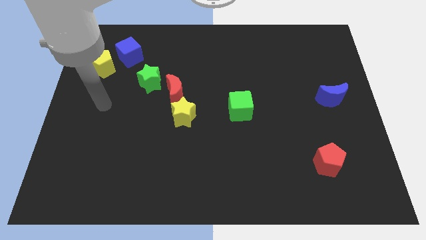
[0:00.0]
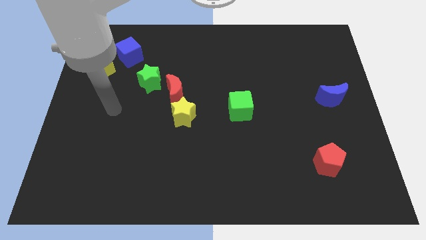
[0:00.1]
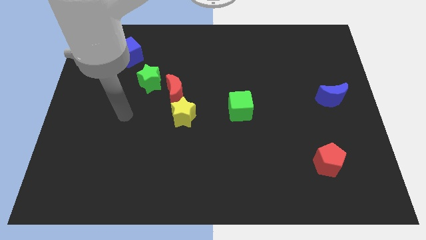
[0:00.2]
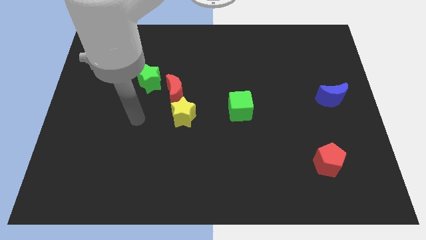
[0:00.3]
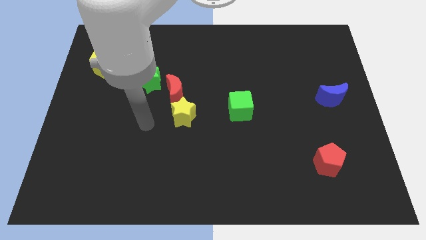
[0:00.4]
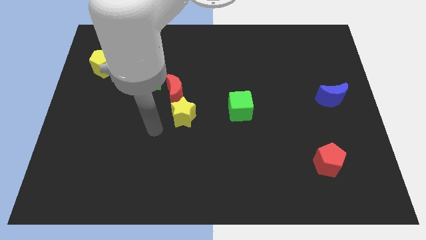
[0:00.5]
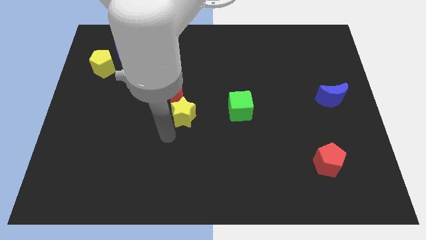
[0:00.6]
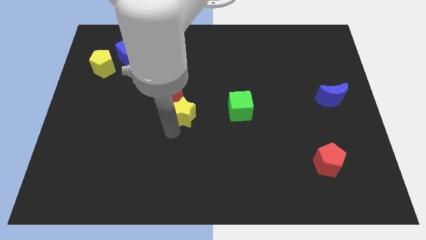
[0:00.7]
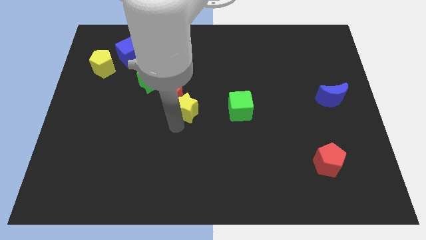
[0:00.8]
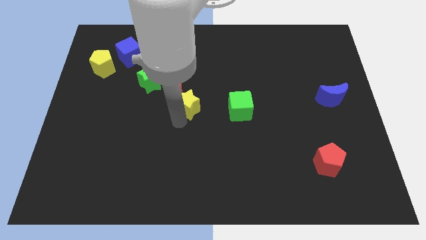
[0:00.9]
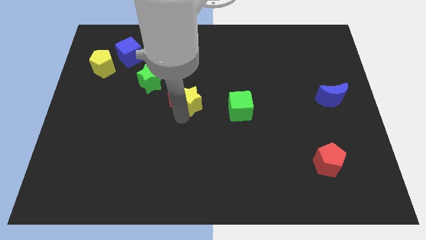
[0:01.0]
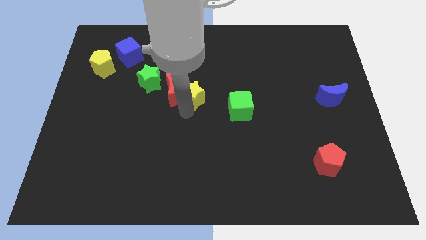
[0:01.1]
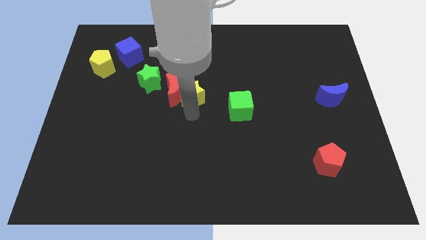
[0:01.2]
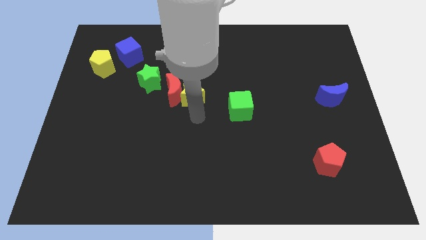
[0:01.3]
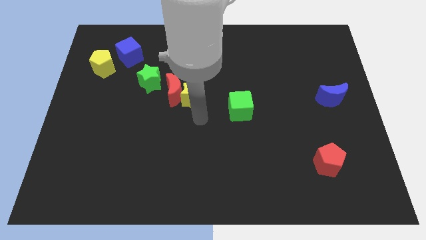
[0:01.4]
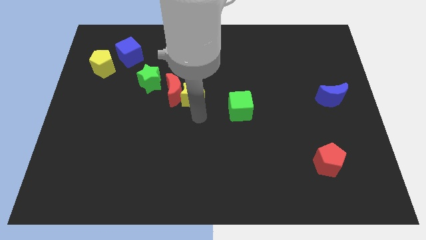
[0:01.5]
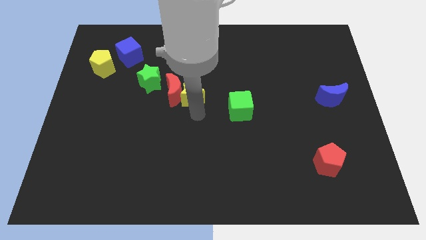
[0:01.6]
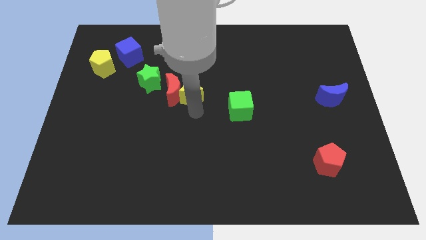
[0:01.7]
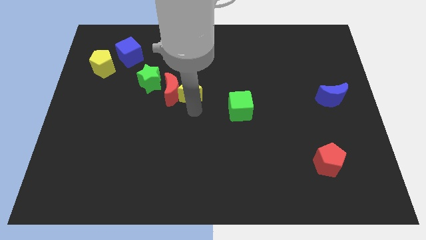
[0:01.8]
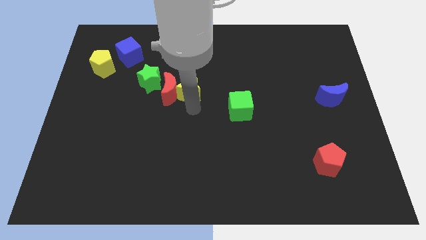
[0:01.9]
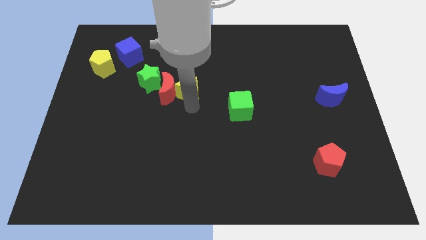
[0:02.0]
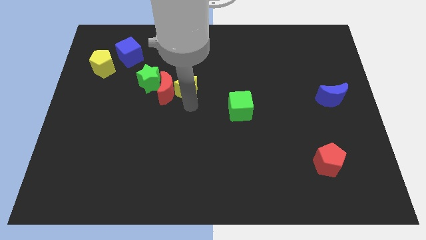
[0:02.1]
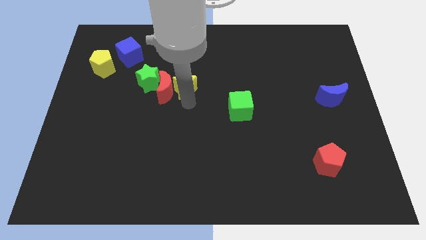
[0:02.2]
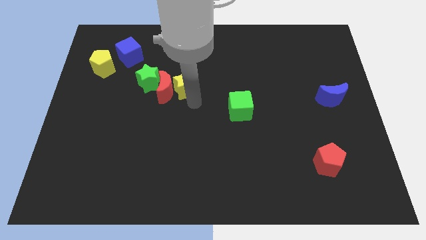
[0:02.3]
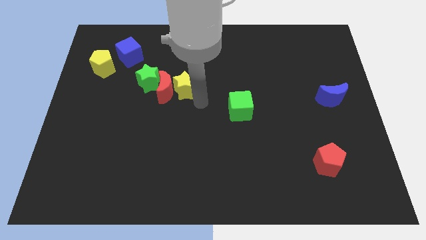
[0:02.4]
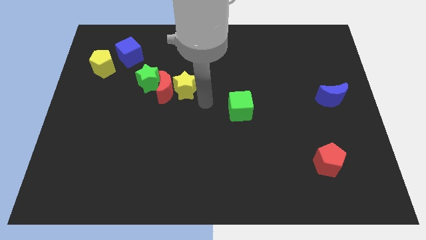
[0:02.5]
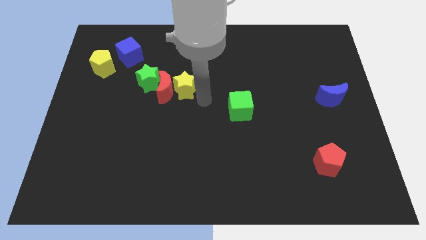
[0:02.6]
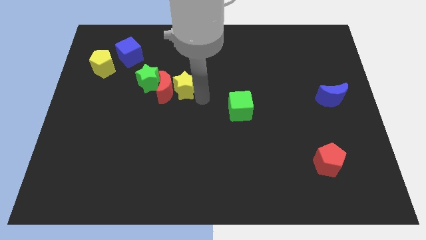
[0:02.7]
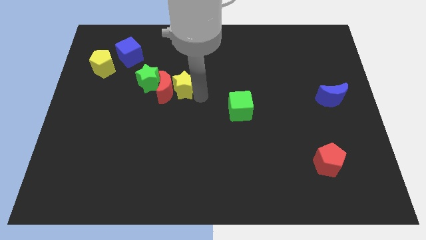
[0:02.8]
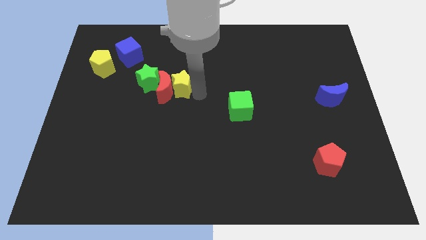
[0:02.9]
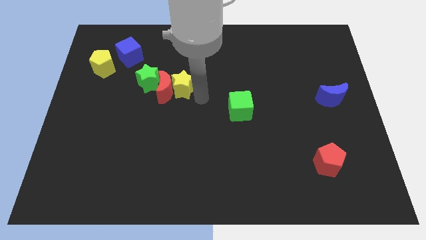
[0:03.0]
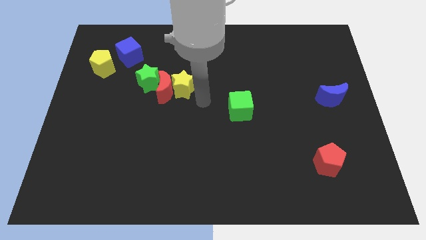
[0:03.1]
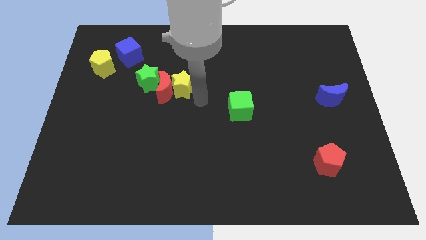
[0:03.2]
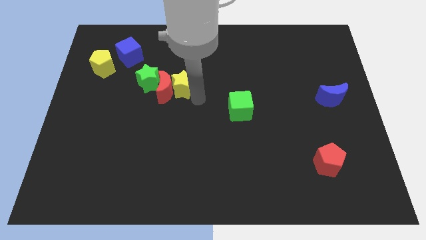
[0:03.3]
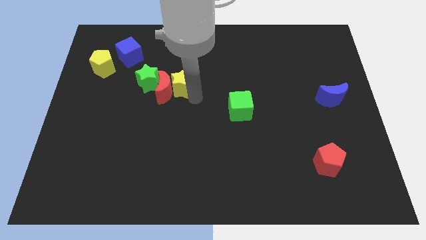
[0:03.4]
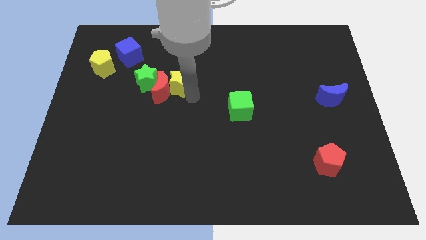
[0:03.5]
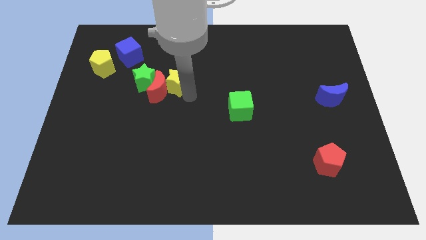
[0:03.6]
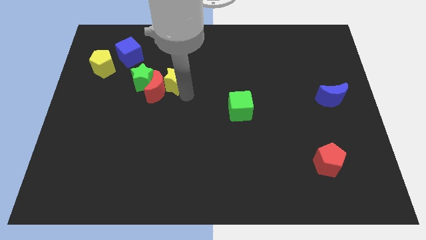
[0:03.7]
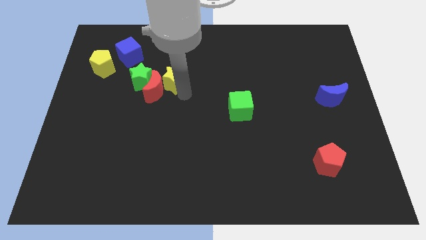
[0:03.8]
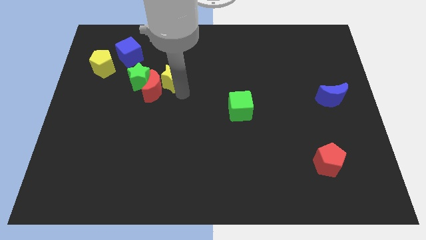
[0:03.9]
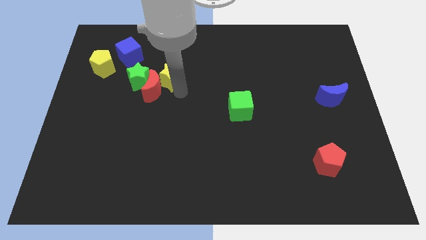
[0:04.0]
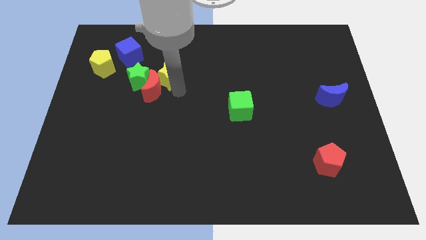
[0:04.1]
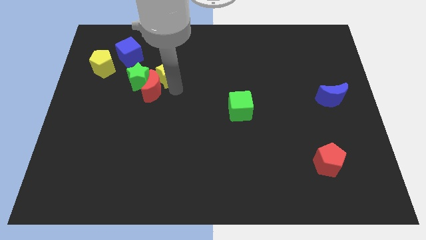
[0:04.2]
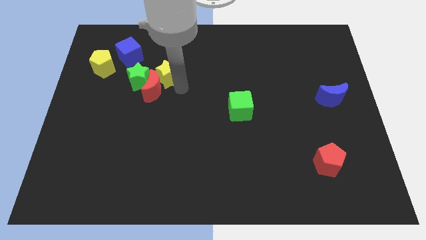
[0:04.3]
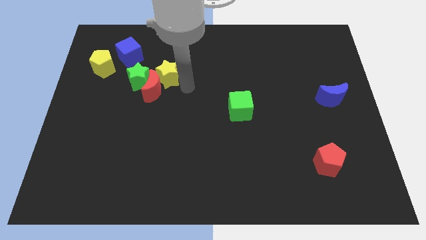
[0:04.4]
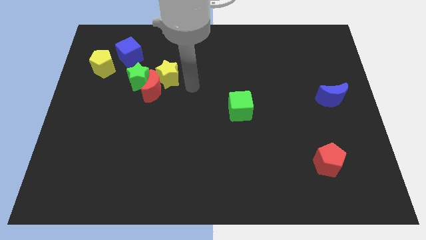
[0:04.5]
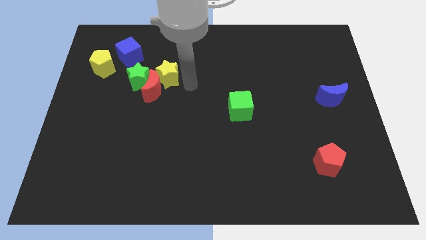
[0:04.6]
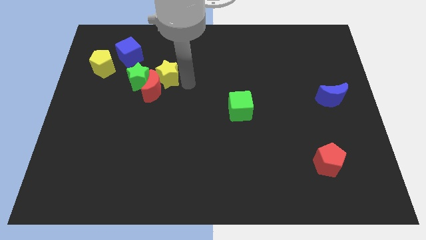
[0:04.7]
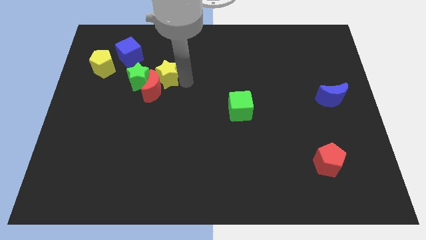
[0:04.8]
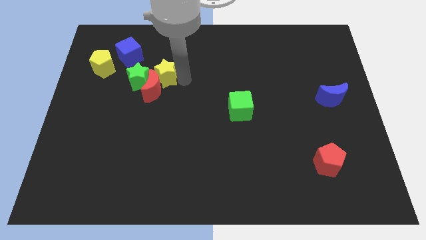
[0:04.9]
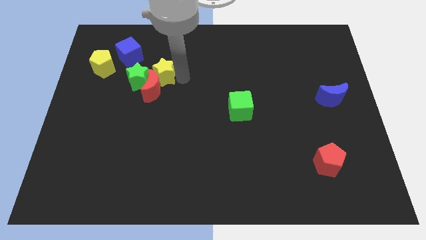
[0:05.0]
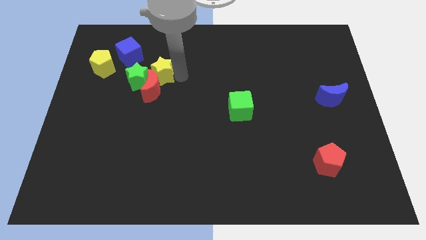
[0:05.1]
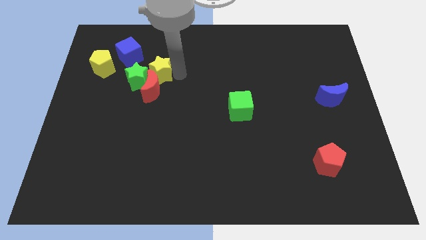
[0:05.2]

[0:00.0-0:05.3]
move the yellow star just right of the yellow pentagon

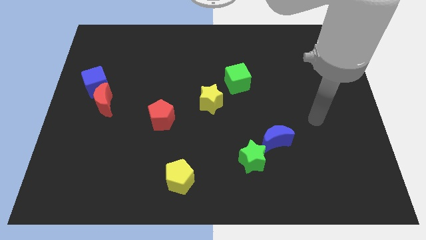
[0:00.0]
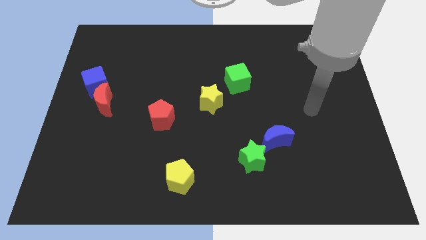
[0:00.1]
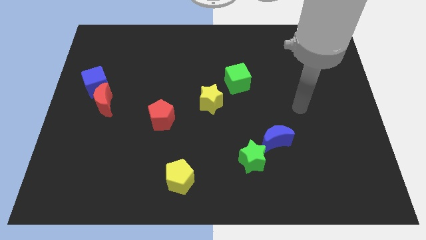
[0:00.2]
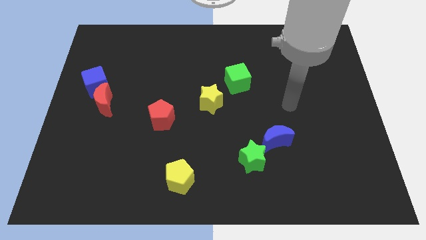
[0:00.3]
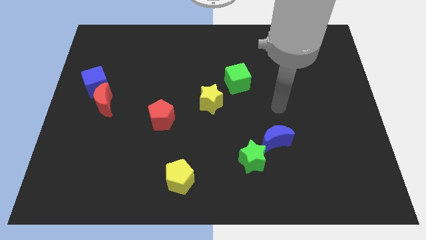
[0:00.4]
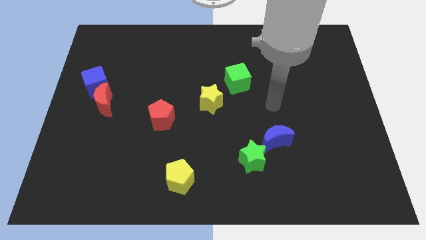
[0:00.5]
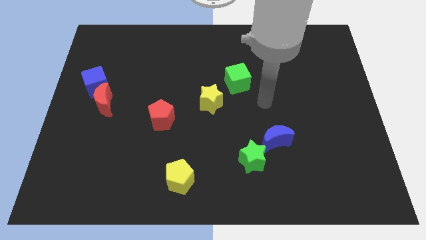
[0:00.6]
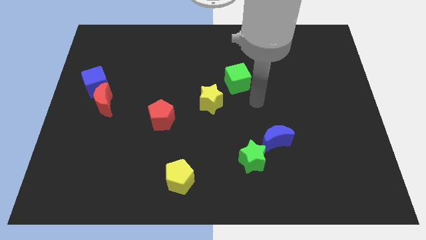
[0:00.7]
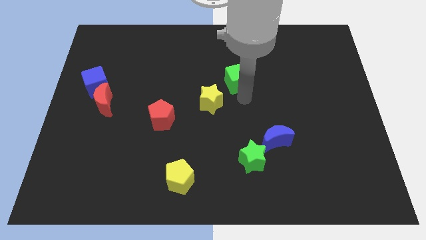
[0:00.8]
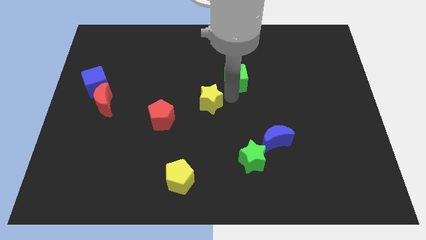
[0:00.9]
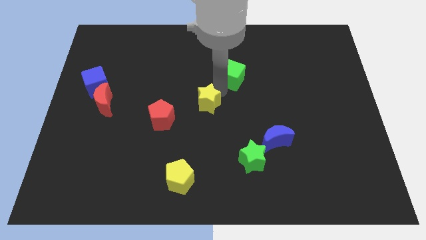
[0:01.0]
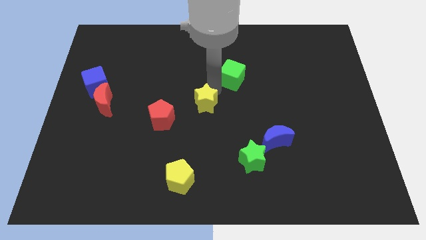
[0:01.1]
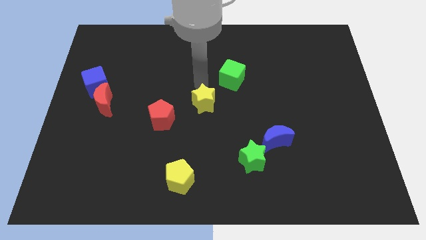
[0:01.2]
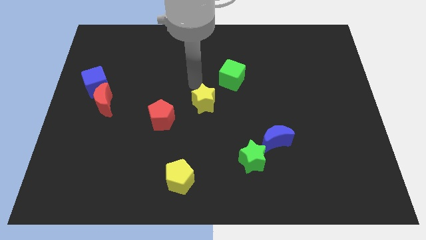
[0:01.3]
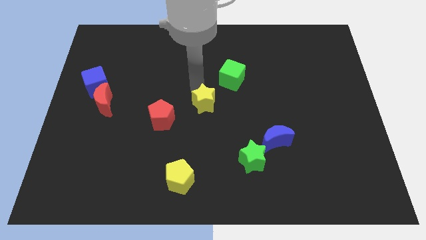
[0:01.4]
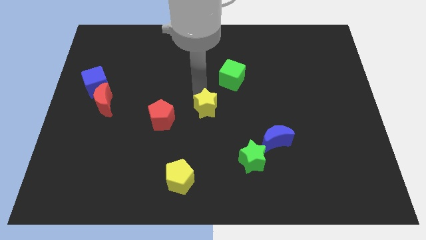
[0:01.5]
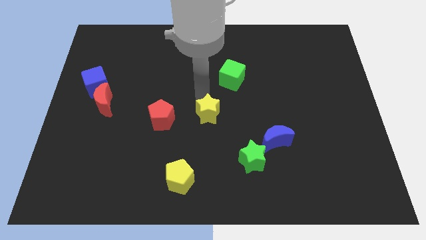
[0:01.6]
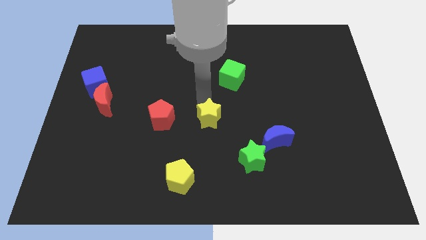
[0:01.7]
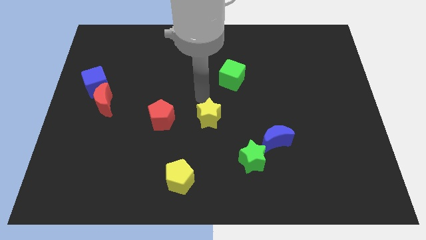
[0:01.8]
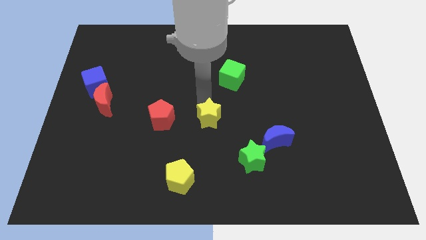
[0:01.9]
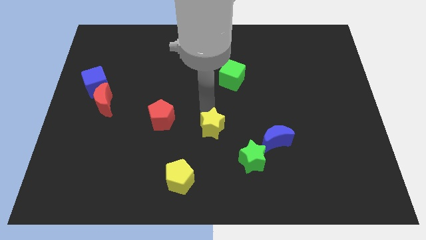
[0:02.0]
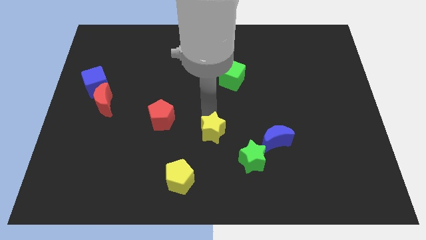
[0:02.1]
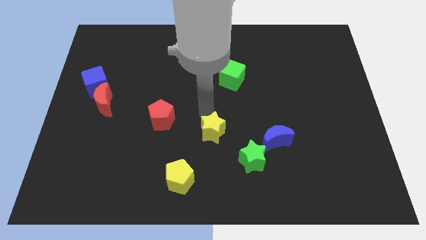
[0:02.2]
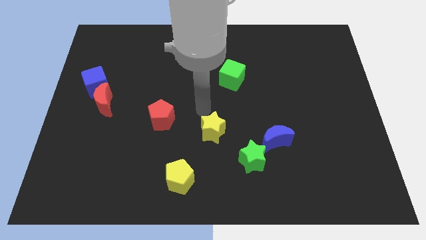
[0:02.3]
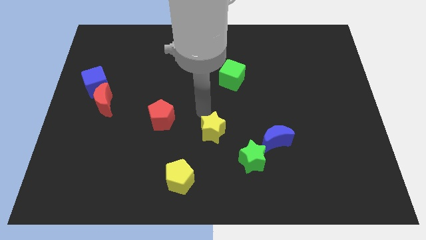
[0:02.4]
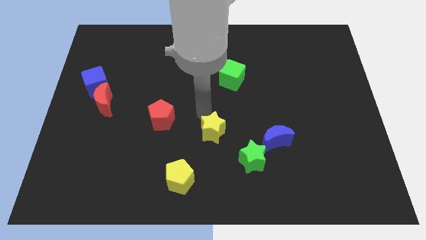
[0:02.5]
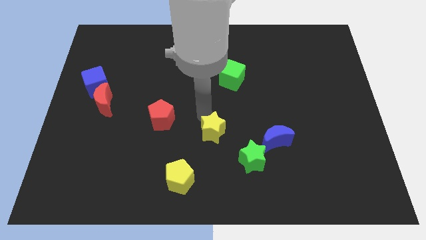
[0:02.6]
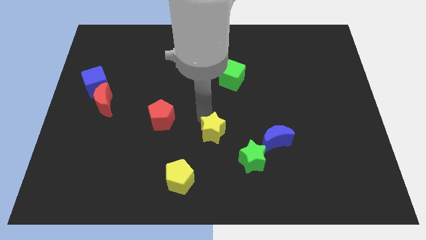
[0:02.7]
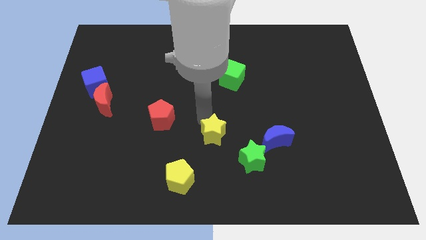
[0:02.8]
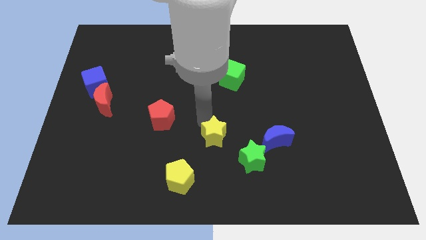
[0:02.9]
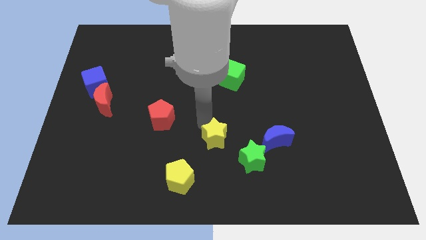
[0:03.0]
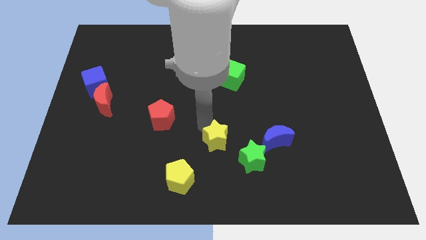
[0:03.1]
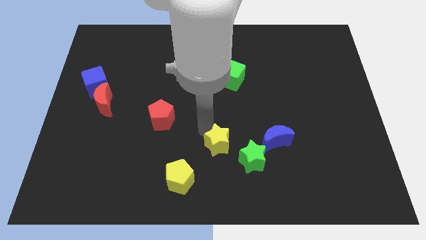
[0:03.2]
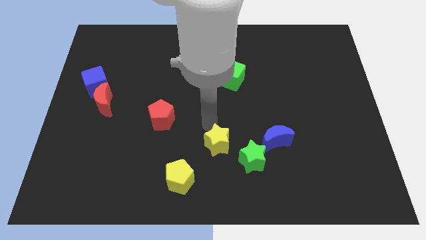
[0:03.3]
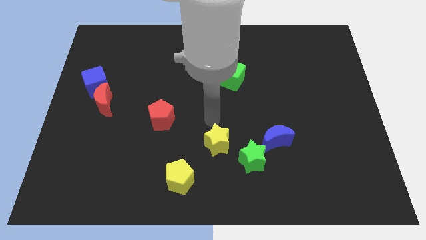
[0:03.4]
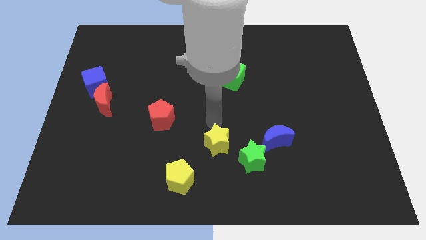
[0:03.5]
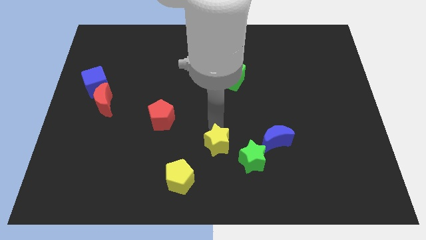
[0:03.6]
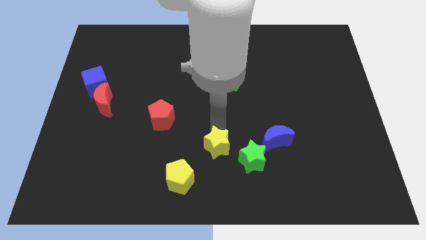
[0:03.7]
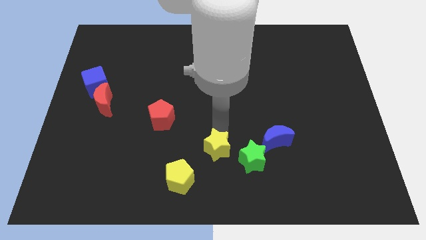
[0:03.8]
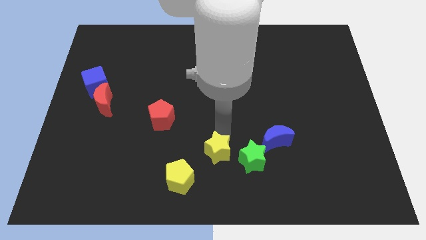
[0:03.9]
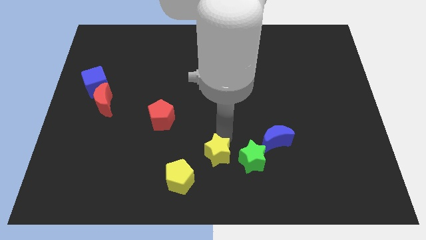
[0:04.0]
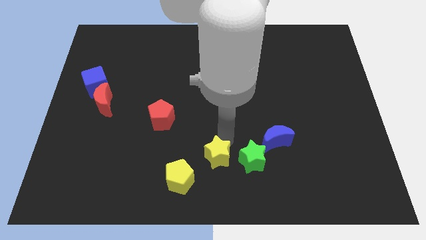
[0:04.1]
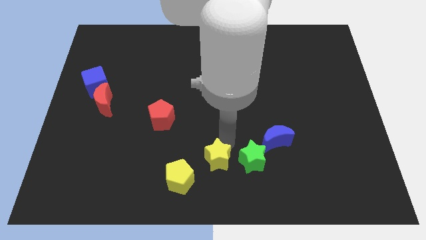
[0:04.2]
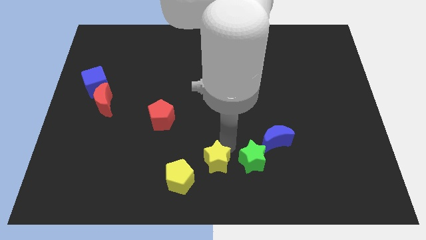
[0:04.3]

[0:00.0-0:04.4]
move the yellow star to the bottom left of the green star
